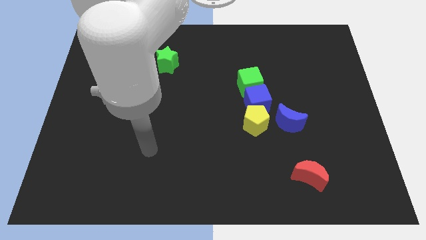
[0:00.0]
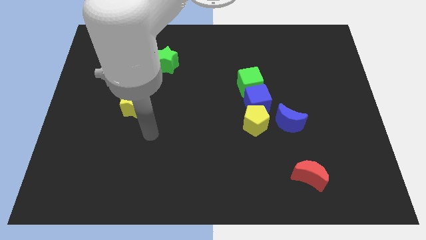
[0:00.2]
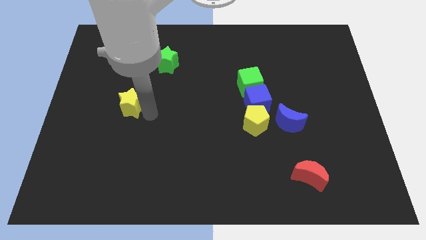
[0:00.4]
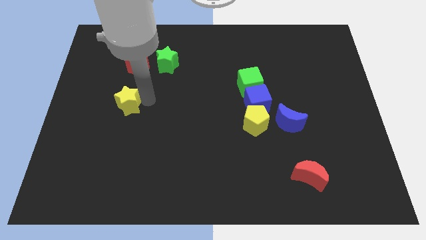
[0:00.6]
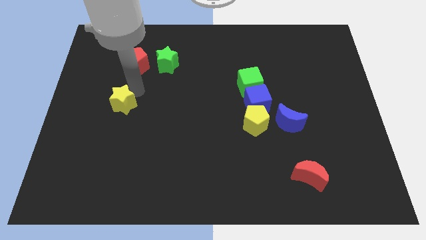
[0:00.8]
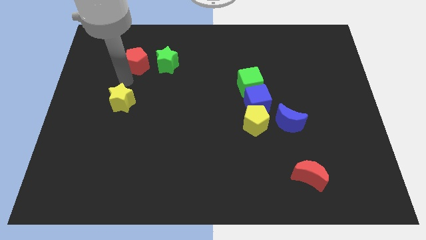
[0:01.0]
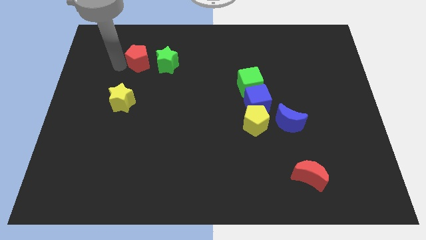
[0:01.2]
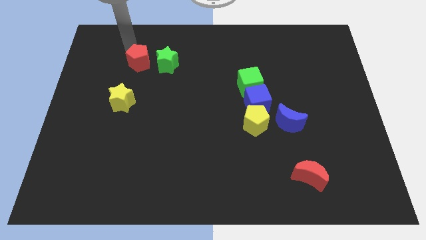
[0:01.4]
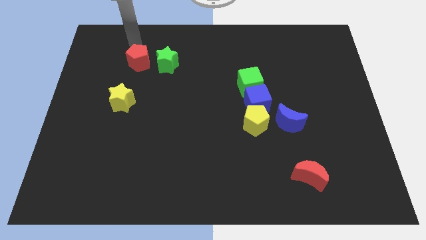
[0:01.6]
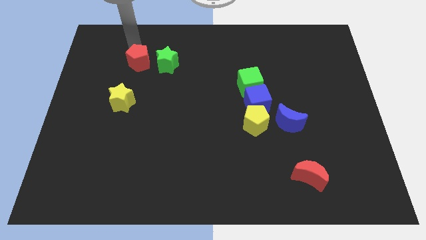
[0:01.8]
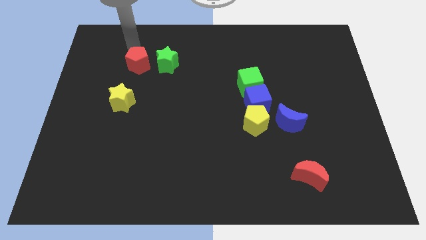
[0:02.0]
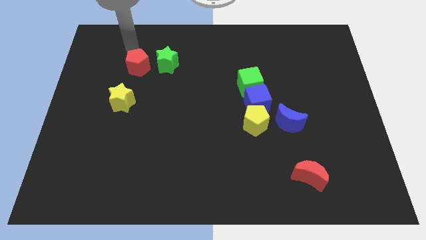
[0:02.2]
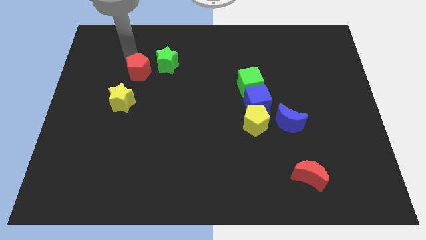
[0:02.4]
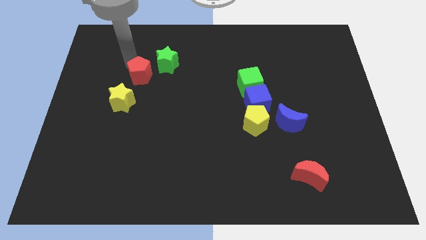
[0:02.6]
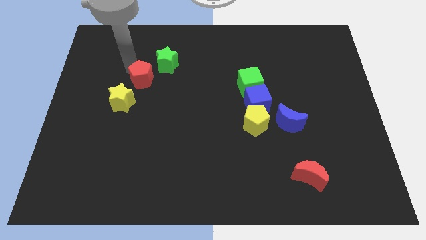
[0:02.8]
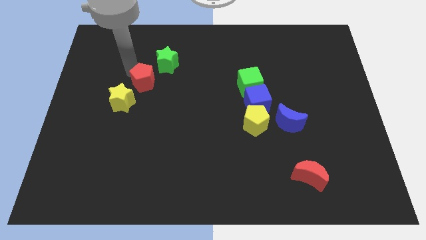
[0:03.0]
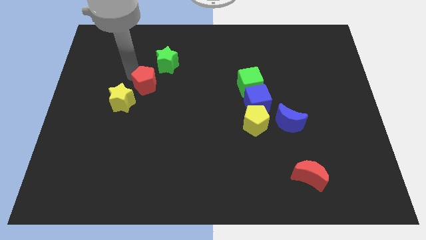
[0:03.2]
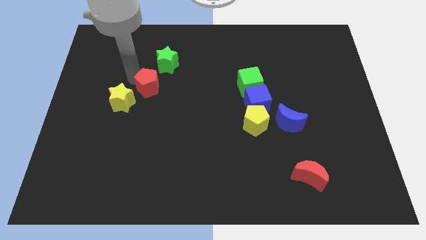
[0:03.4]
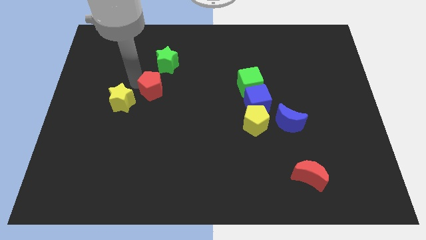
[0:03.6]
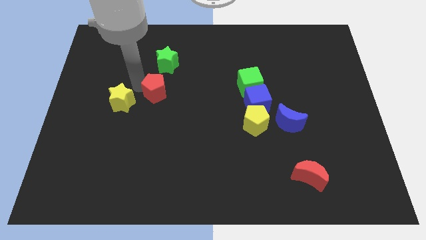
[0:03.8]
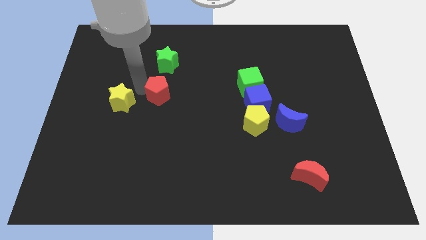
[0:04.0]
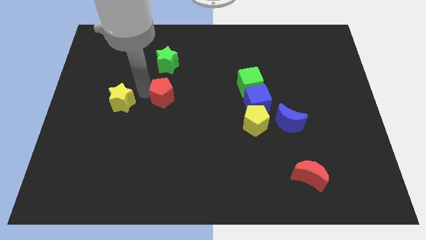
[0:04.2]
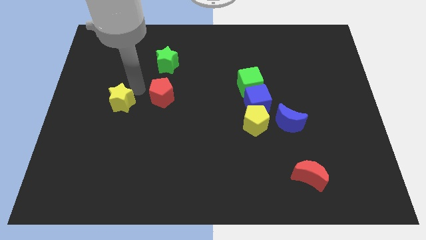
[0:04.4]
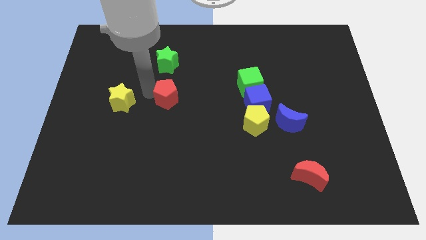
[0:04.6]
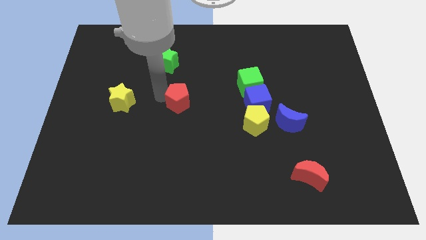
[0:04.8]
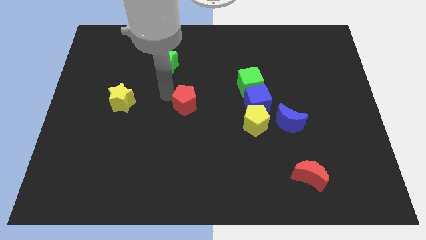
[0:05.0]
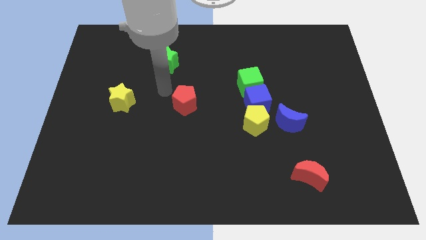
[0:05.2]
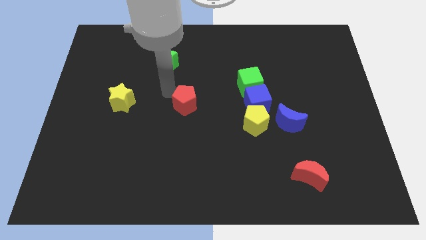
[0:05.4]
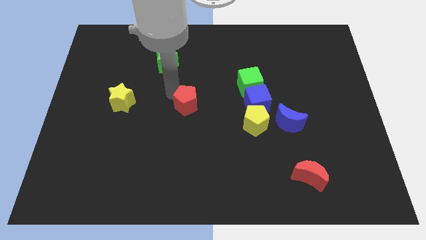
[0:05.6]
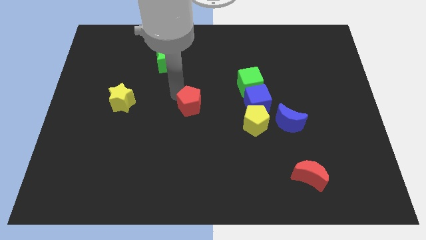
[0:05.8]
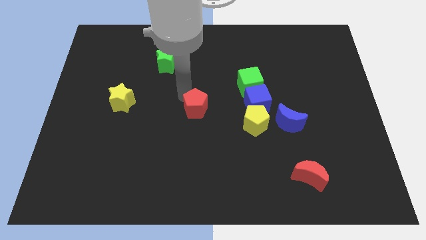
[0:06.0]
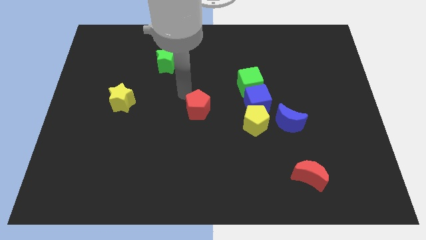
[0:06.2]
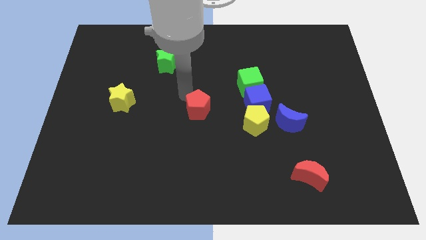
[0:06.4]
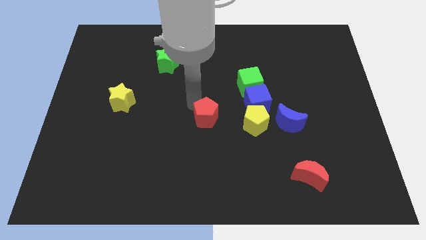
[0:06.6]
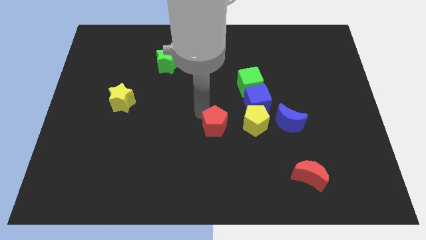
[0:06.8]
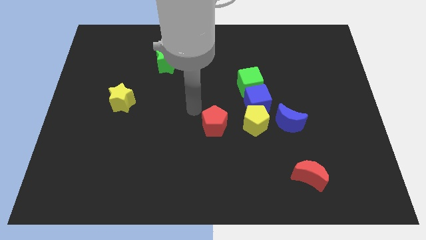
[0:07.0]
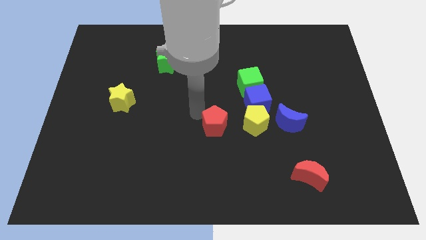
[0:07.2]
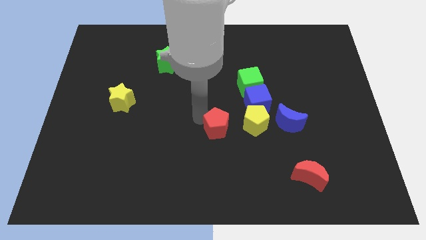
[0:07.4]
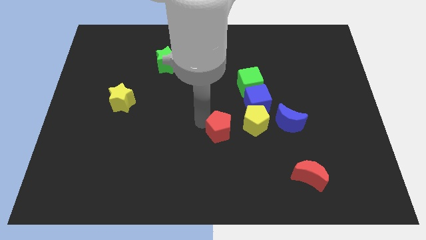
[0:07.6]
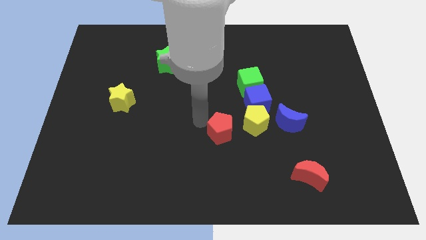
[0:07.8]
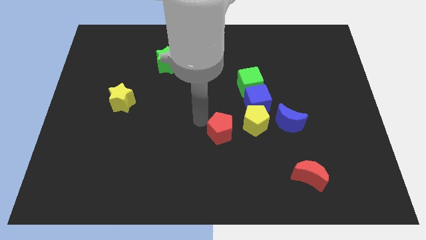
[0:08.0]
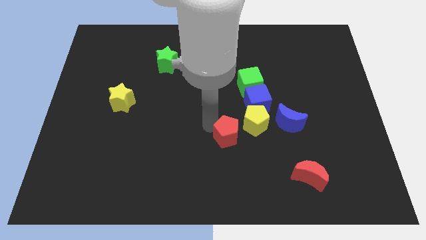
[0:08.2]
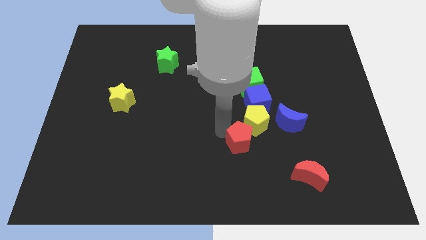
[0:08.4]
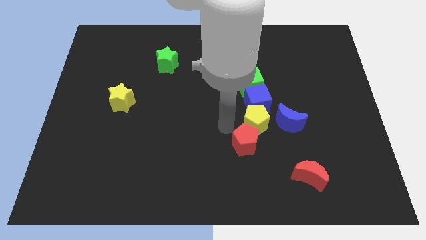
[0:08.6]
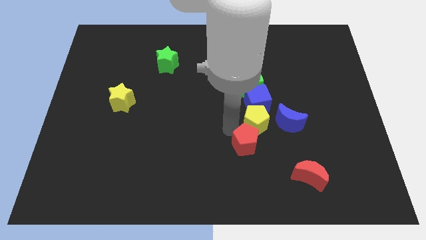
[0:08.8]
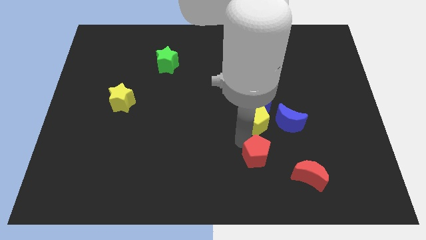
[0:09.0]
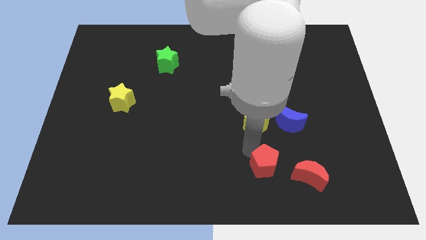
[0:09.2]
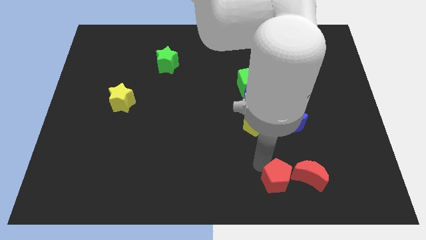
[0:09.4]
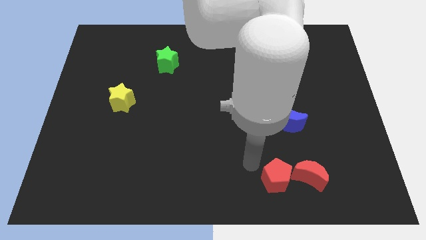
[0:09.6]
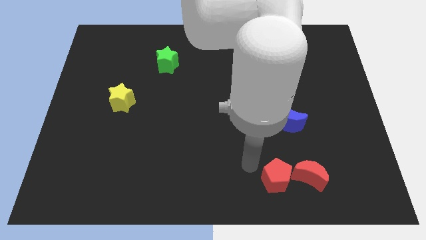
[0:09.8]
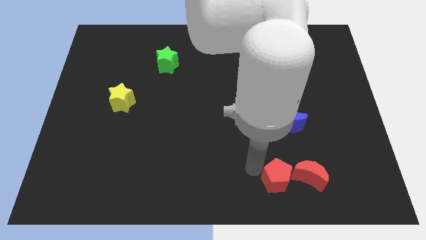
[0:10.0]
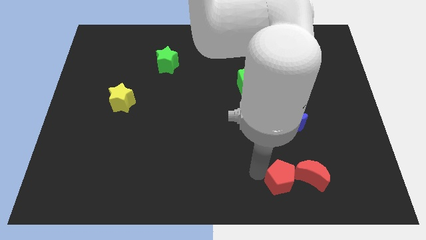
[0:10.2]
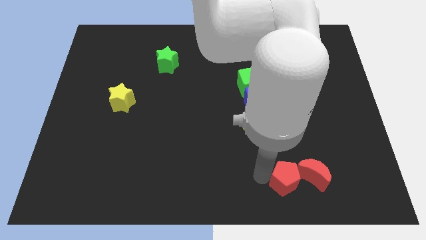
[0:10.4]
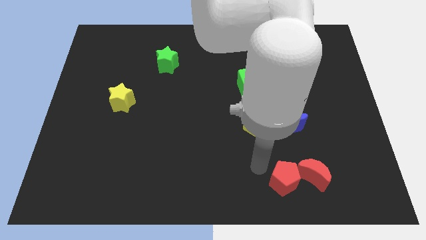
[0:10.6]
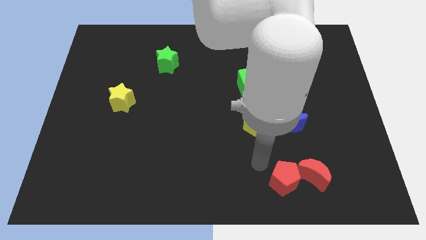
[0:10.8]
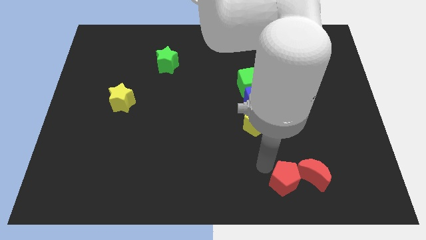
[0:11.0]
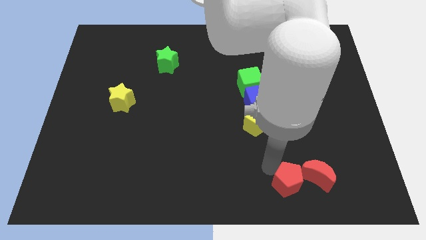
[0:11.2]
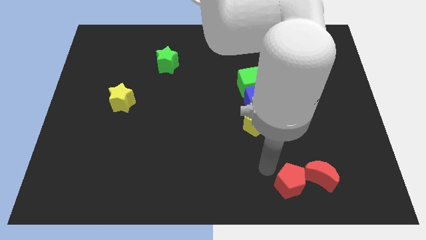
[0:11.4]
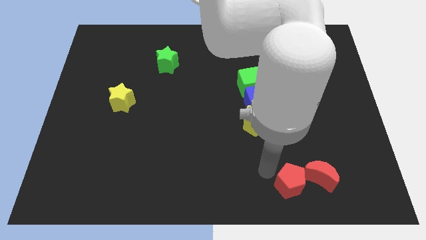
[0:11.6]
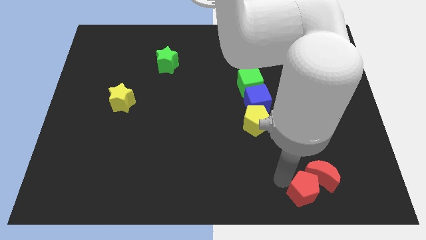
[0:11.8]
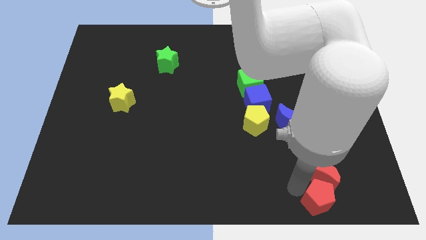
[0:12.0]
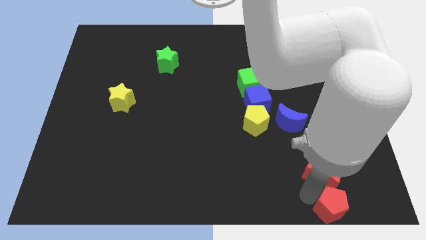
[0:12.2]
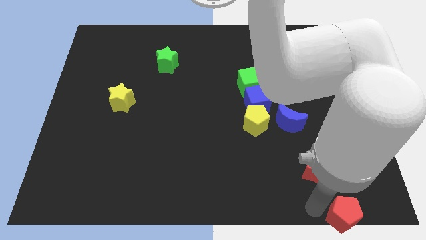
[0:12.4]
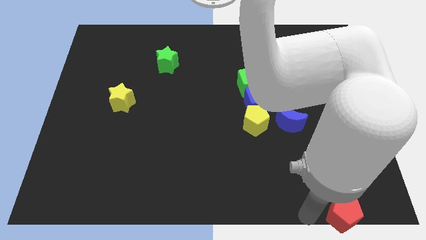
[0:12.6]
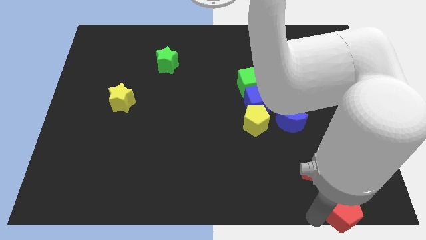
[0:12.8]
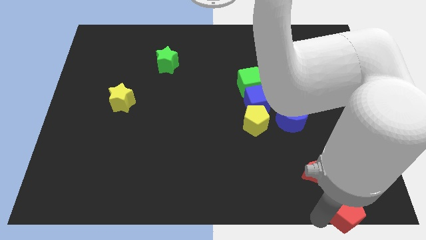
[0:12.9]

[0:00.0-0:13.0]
put the red pentagon to the bottom right
